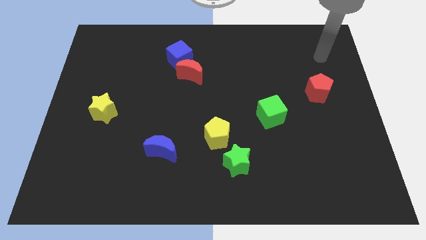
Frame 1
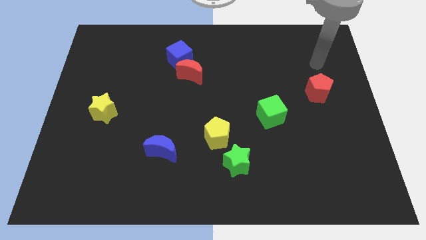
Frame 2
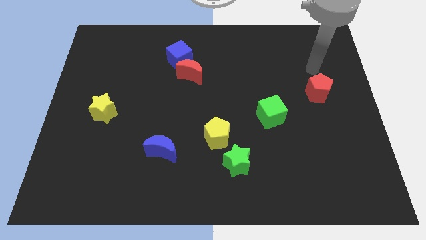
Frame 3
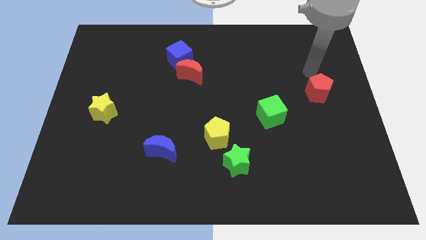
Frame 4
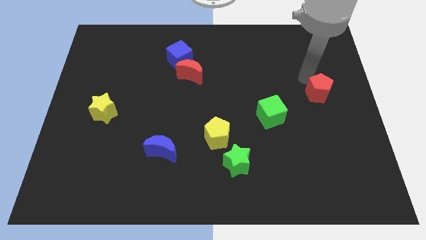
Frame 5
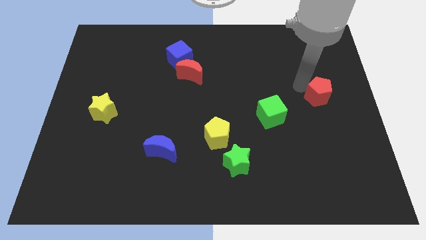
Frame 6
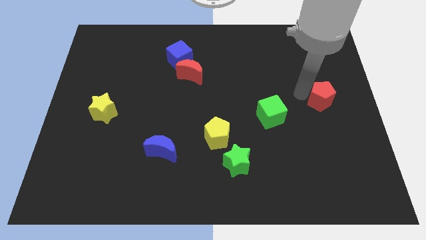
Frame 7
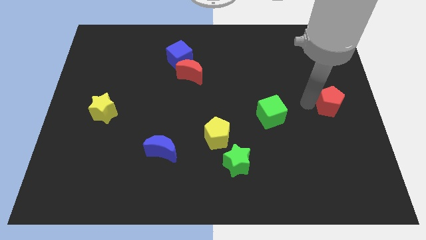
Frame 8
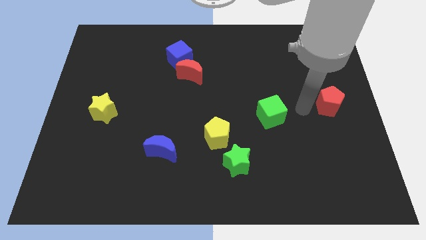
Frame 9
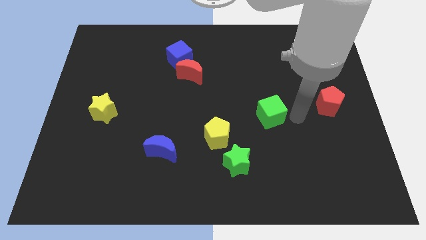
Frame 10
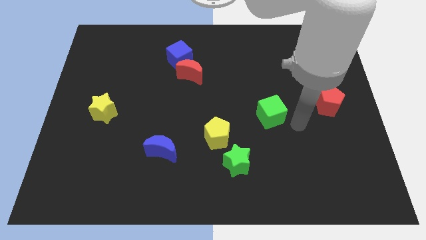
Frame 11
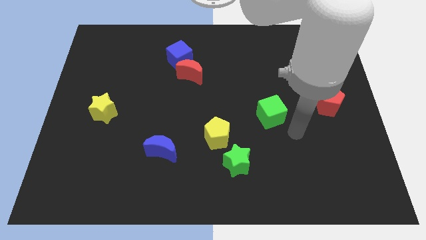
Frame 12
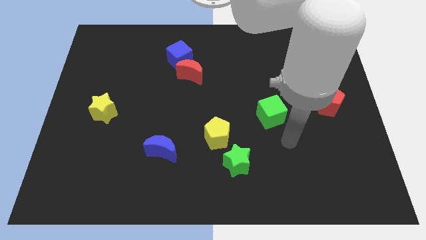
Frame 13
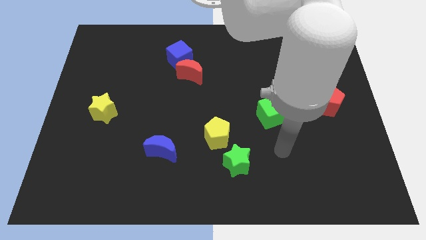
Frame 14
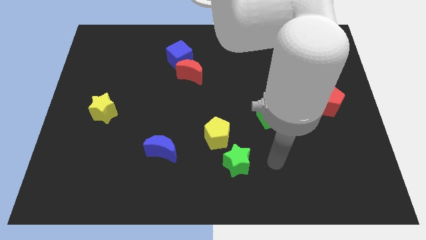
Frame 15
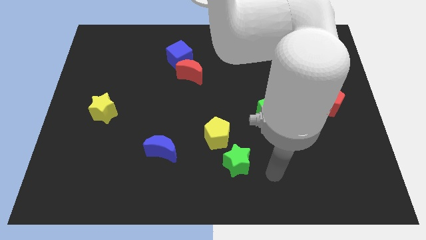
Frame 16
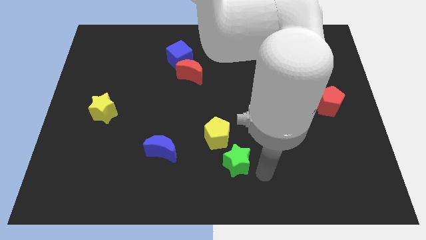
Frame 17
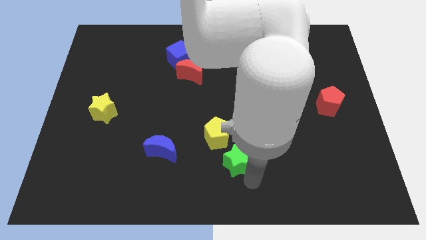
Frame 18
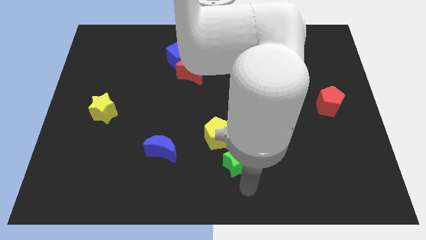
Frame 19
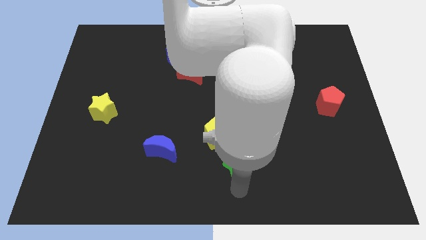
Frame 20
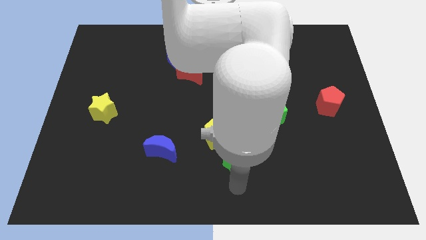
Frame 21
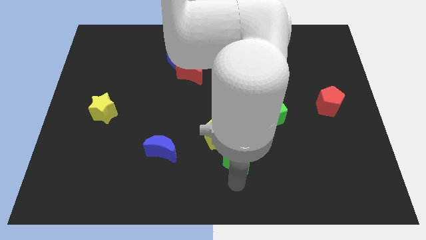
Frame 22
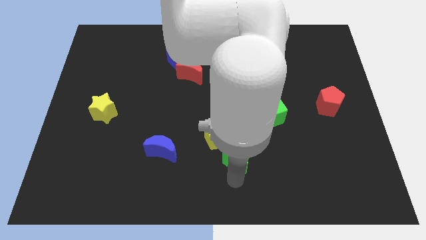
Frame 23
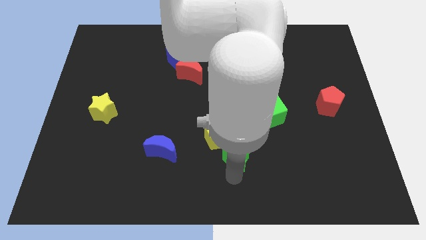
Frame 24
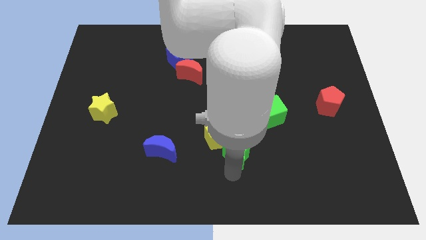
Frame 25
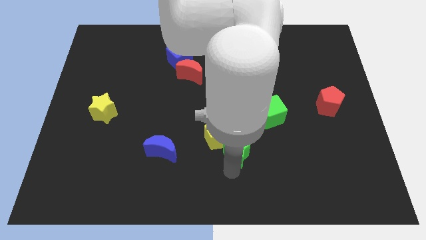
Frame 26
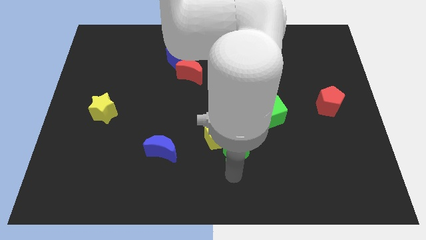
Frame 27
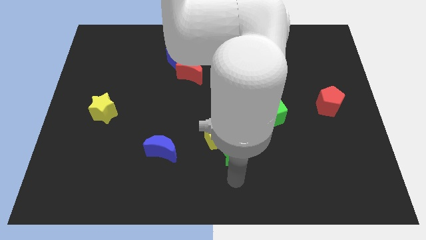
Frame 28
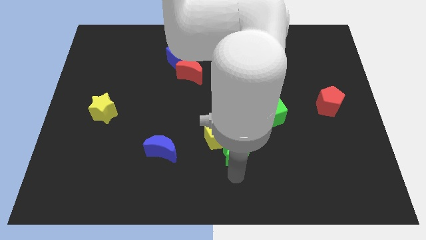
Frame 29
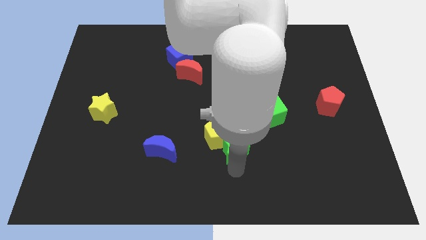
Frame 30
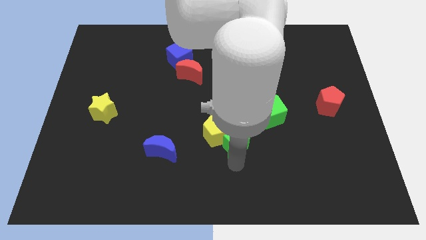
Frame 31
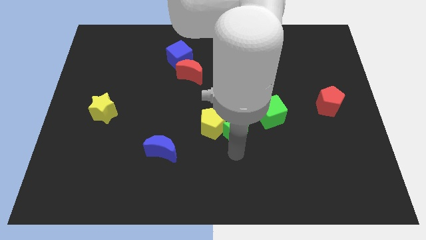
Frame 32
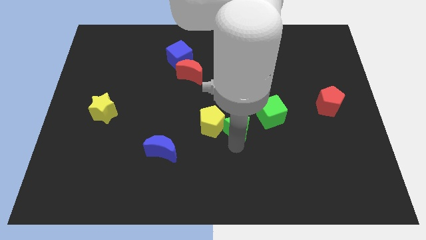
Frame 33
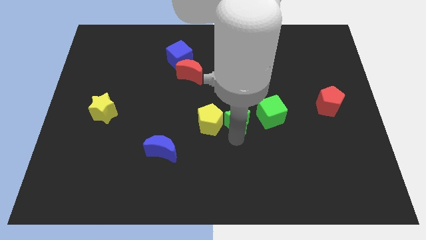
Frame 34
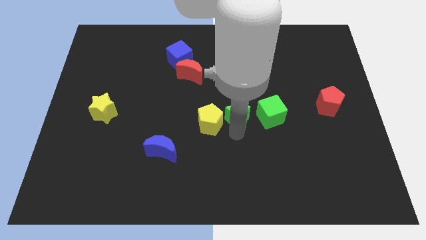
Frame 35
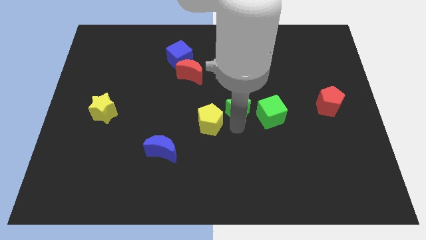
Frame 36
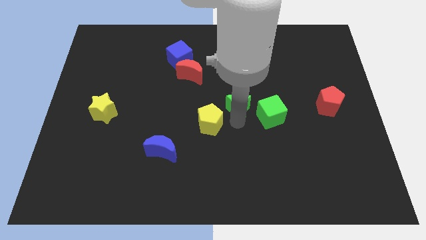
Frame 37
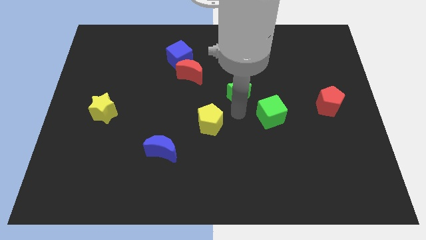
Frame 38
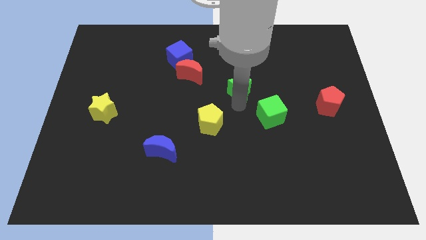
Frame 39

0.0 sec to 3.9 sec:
push the green star up

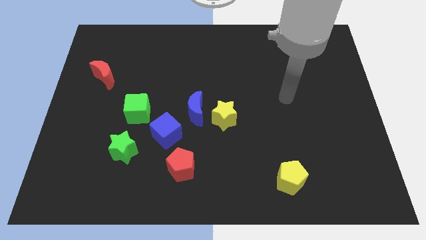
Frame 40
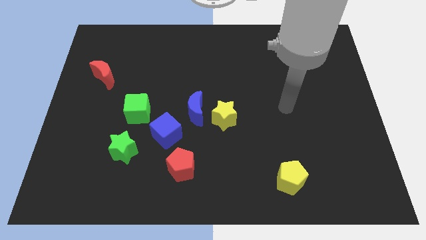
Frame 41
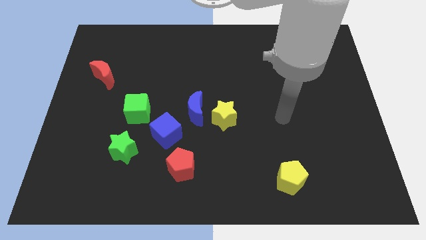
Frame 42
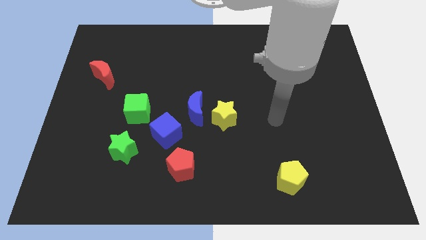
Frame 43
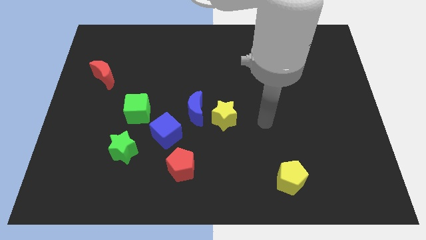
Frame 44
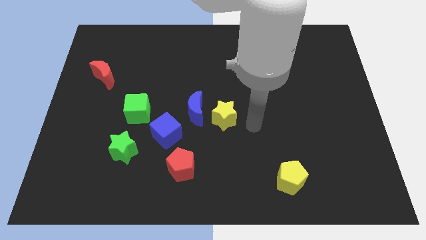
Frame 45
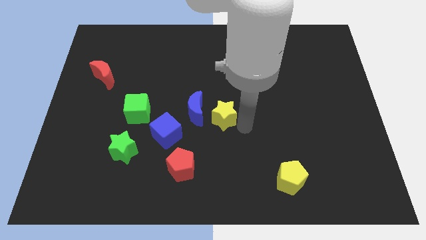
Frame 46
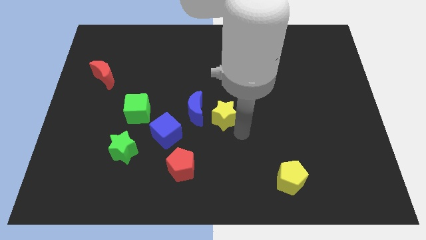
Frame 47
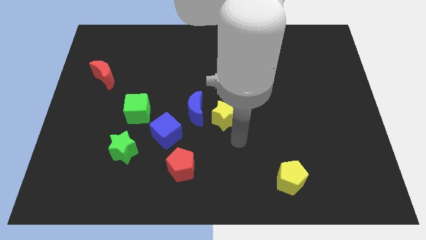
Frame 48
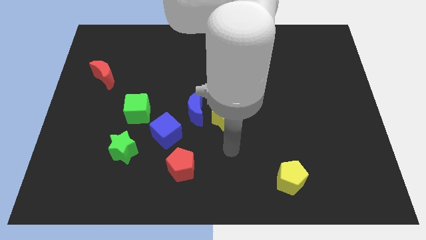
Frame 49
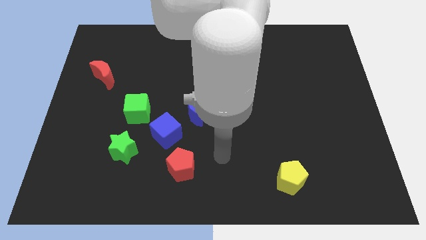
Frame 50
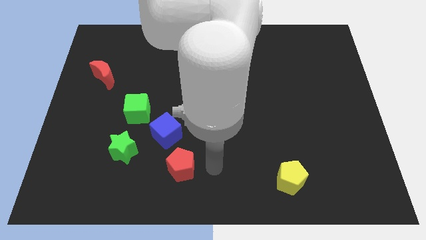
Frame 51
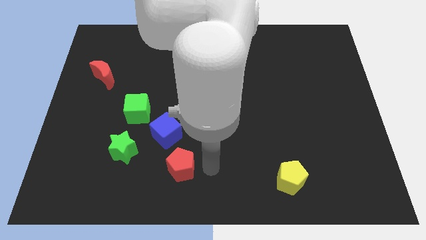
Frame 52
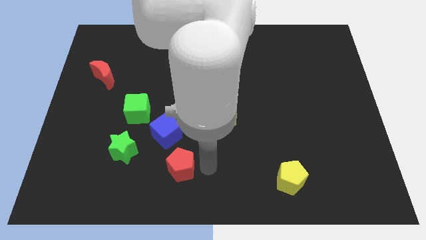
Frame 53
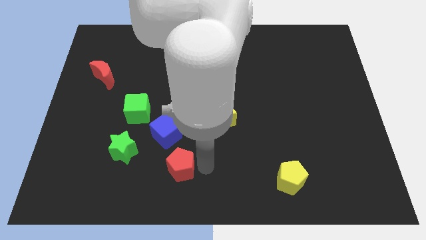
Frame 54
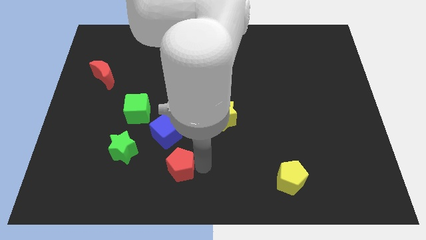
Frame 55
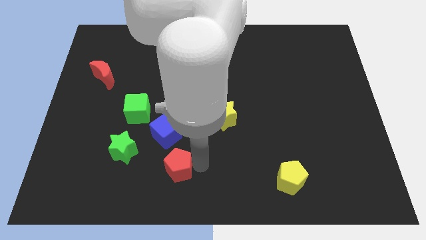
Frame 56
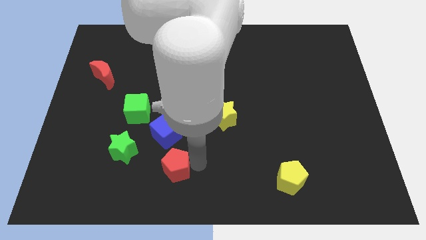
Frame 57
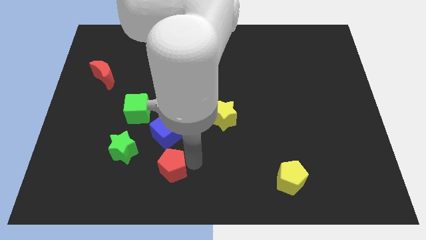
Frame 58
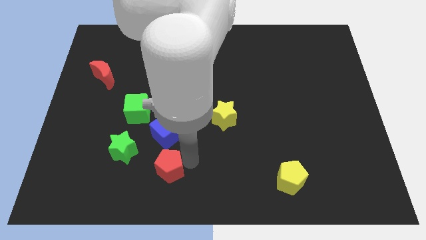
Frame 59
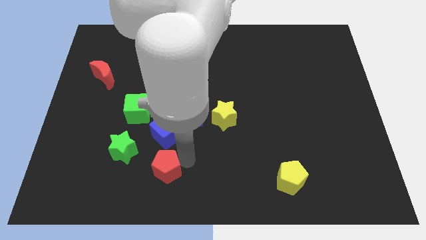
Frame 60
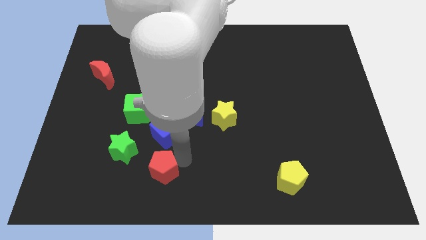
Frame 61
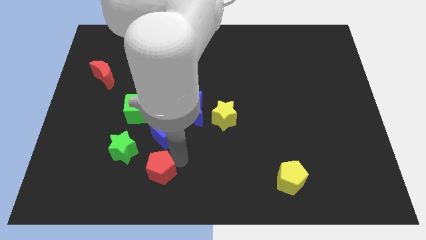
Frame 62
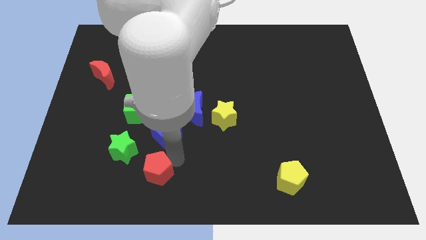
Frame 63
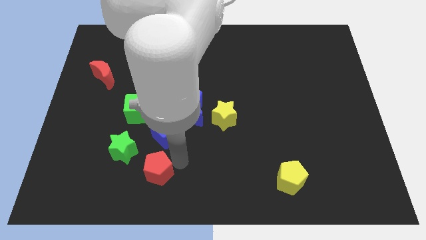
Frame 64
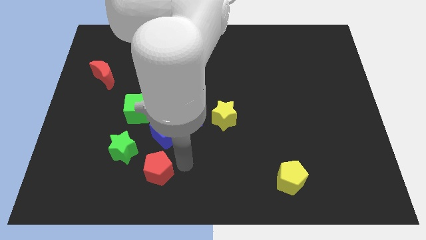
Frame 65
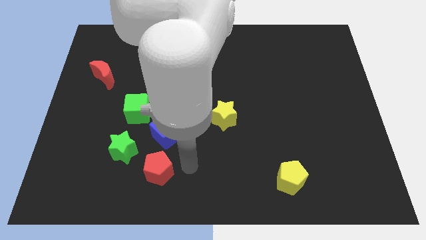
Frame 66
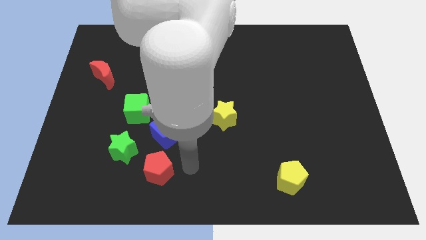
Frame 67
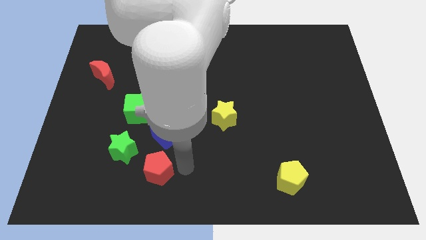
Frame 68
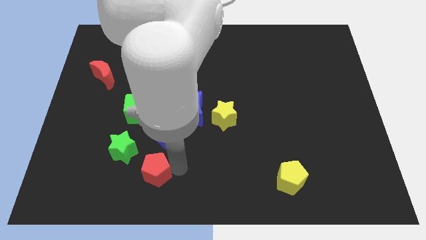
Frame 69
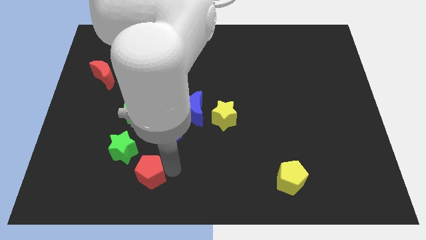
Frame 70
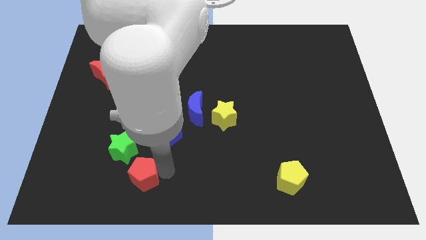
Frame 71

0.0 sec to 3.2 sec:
slide the red pentagon to the left somewhat

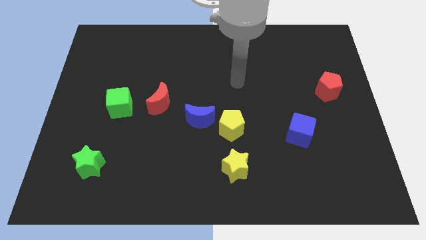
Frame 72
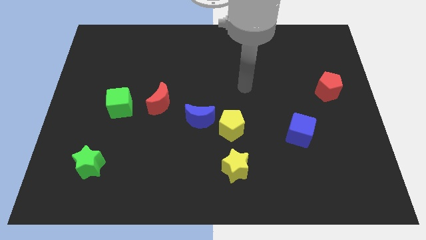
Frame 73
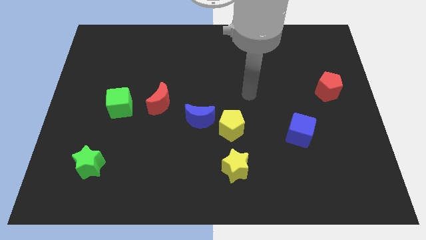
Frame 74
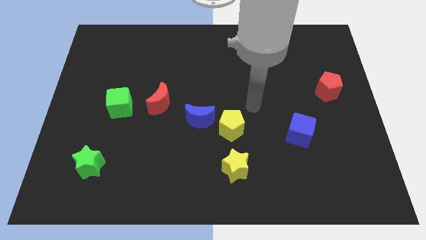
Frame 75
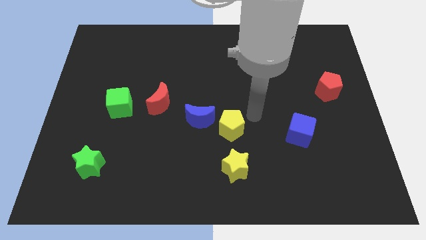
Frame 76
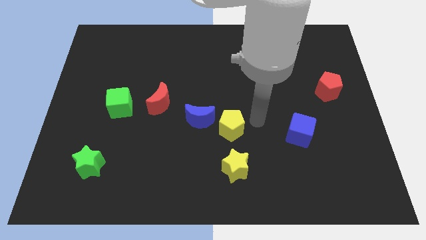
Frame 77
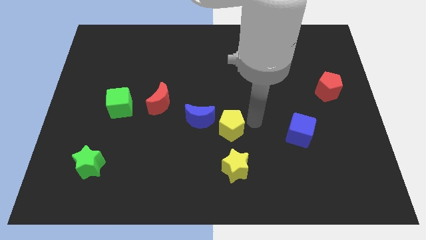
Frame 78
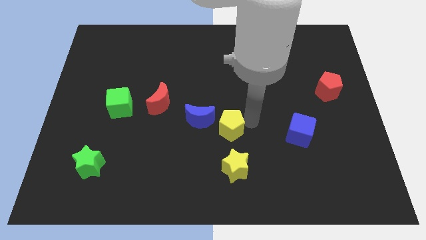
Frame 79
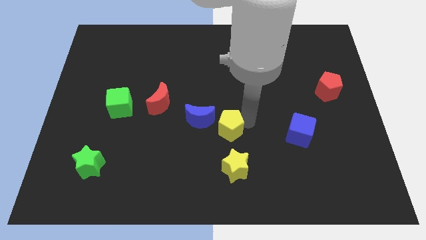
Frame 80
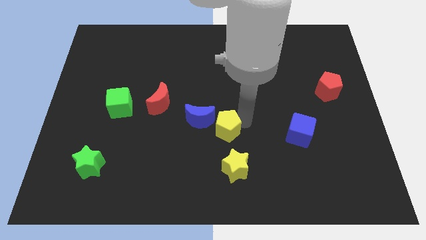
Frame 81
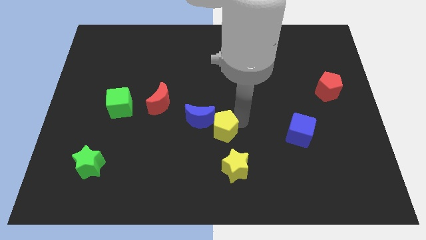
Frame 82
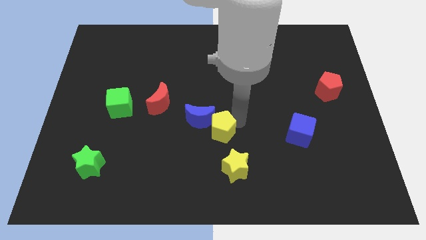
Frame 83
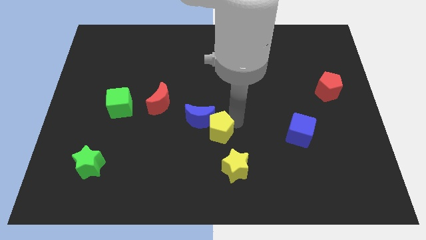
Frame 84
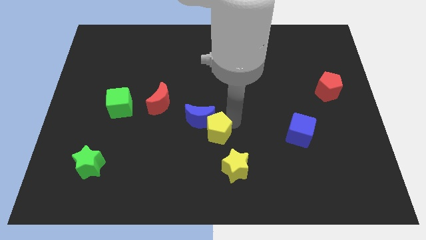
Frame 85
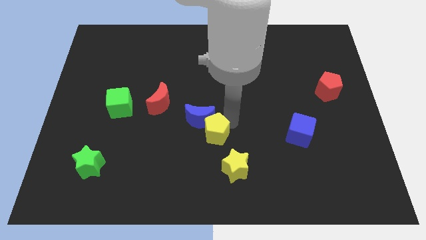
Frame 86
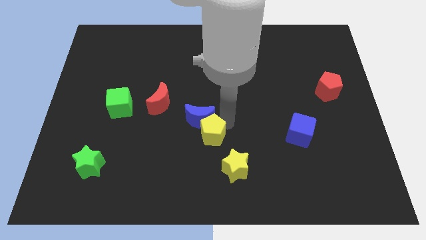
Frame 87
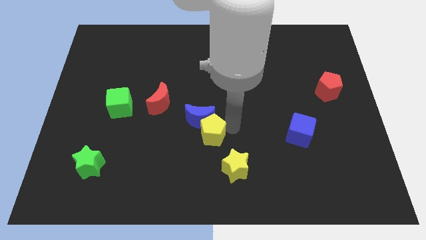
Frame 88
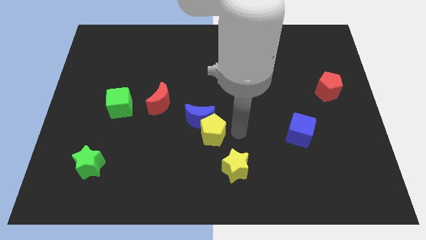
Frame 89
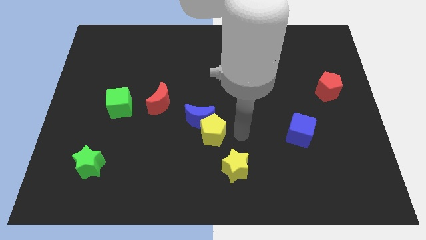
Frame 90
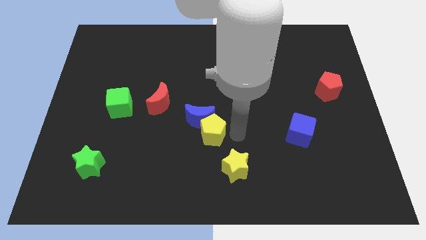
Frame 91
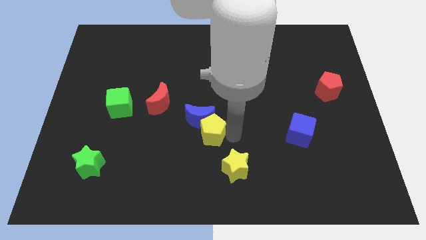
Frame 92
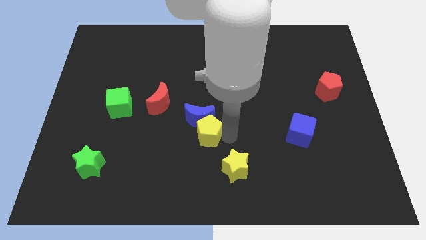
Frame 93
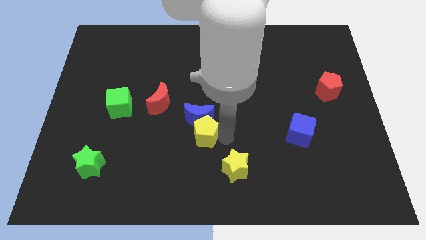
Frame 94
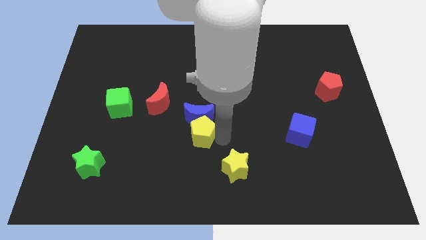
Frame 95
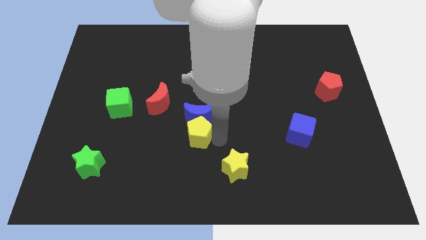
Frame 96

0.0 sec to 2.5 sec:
push the yellow pentagon somewhat to the left
